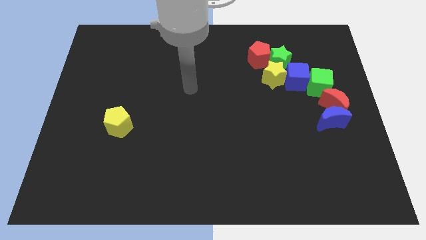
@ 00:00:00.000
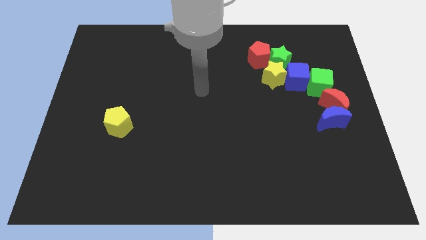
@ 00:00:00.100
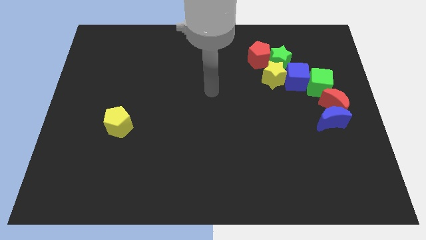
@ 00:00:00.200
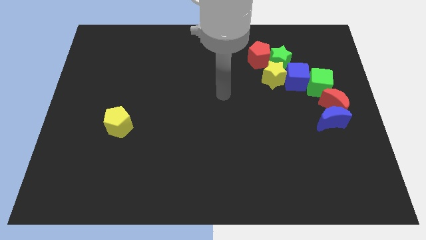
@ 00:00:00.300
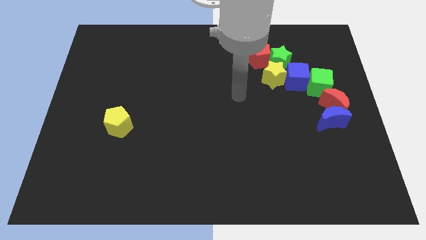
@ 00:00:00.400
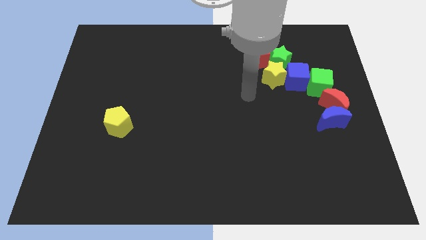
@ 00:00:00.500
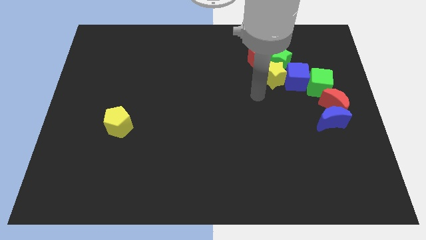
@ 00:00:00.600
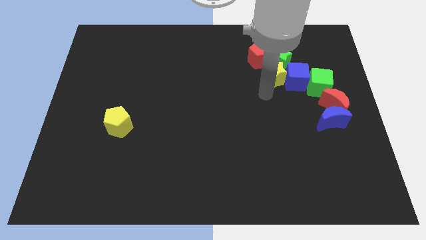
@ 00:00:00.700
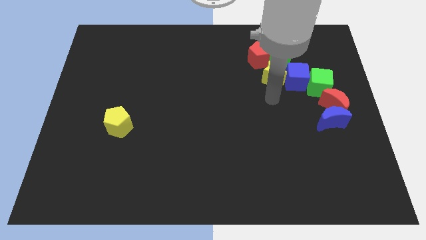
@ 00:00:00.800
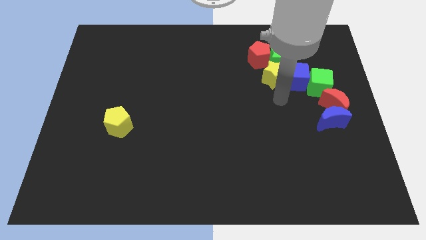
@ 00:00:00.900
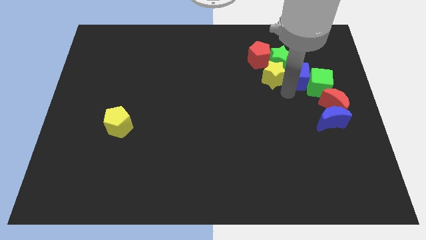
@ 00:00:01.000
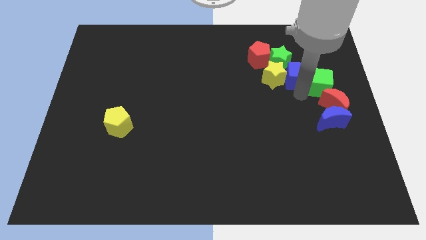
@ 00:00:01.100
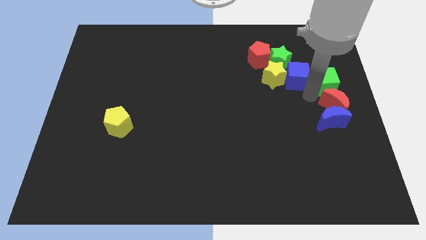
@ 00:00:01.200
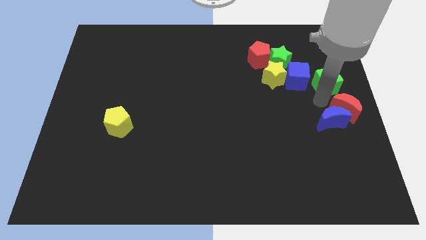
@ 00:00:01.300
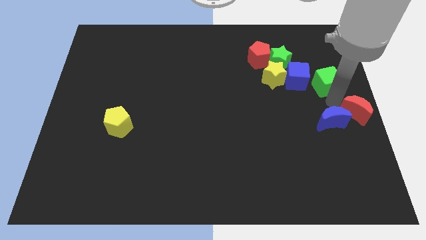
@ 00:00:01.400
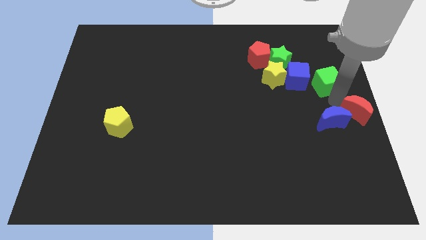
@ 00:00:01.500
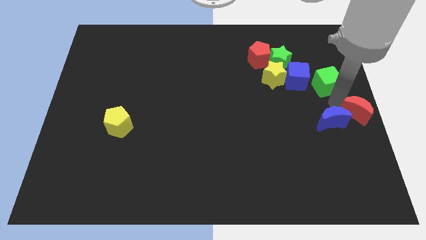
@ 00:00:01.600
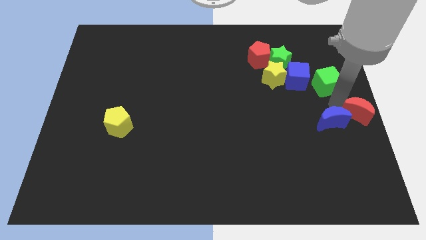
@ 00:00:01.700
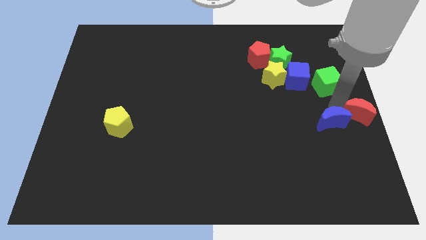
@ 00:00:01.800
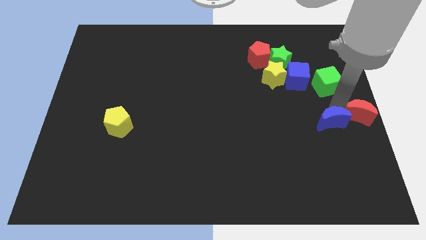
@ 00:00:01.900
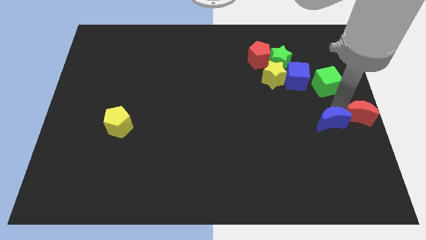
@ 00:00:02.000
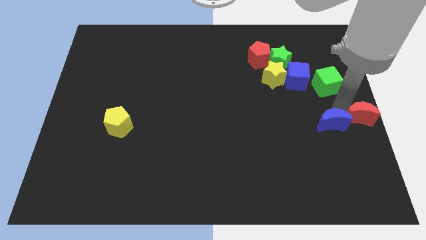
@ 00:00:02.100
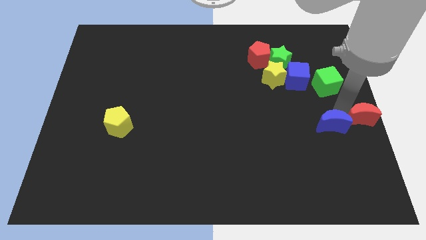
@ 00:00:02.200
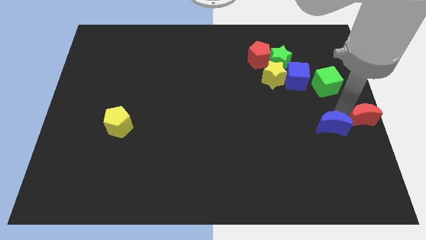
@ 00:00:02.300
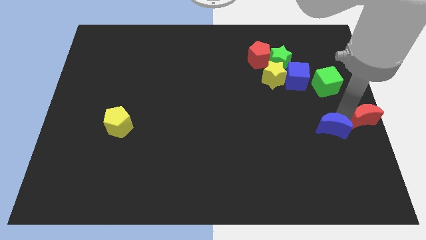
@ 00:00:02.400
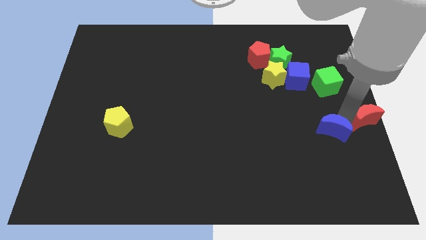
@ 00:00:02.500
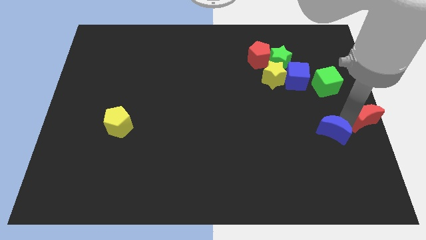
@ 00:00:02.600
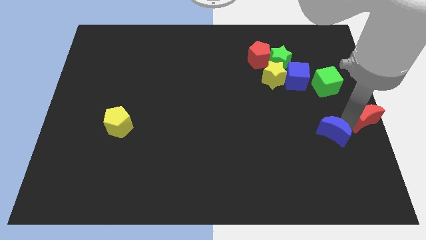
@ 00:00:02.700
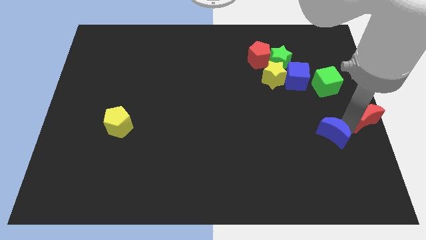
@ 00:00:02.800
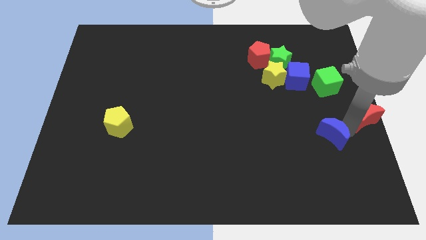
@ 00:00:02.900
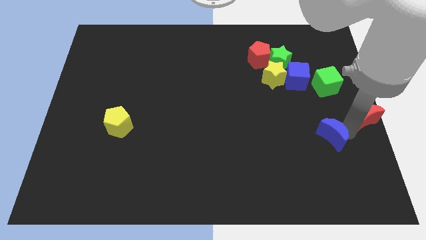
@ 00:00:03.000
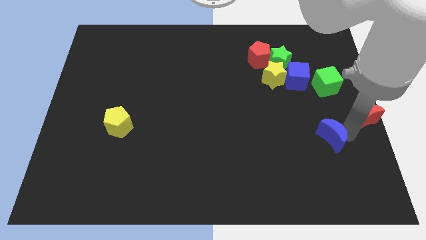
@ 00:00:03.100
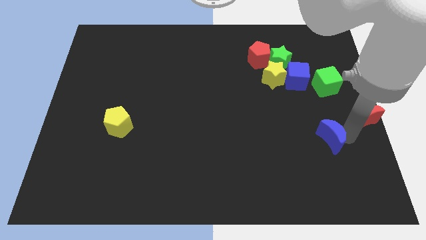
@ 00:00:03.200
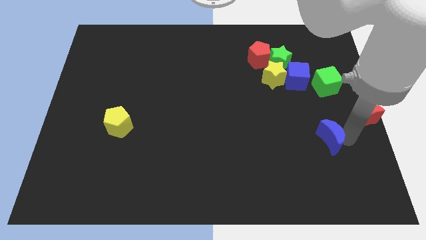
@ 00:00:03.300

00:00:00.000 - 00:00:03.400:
move the blue moon away from the red moon

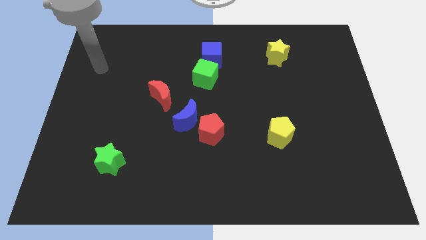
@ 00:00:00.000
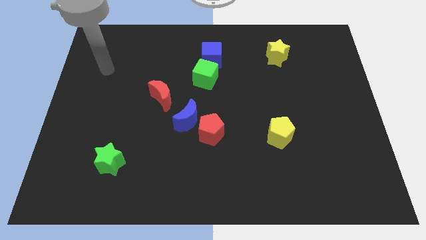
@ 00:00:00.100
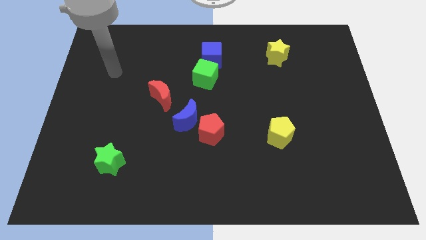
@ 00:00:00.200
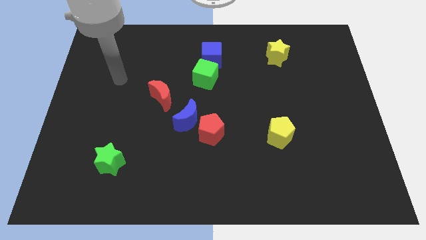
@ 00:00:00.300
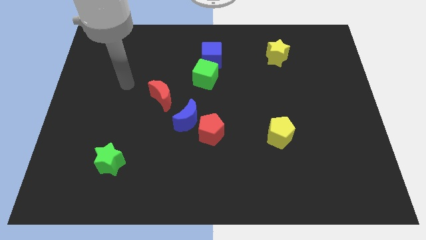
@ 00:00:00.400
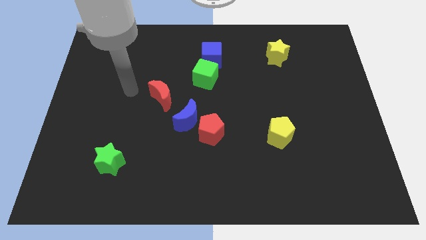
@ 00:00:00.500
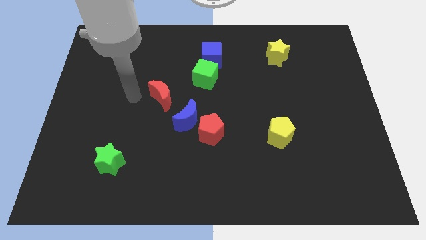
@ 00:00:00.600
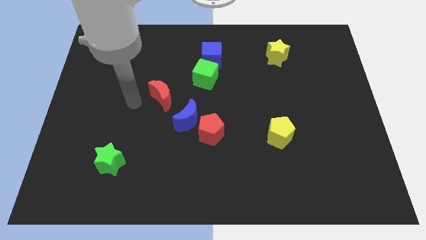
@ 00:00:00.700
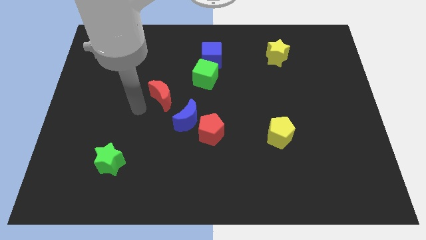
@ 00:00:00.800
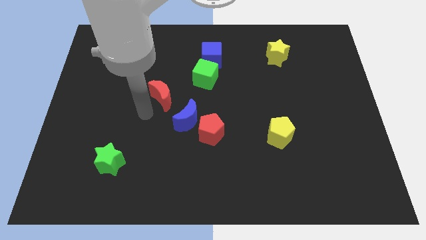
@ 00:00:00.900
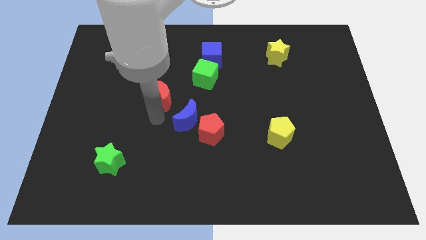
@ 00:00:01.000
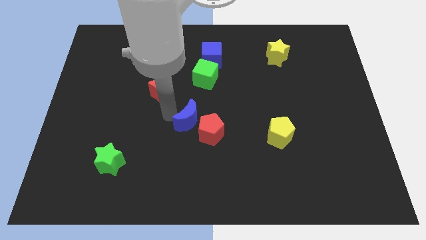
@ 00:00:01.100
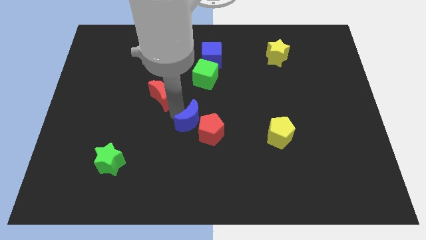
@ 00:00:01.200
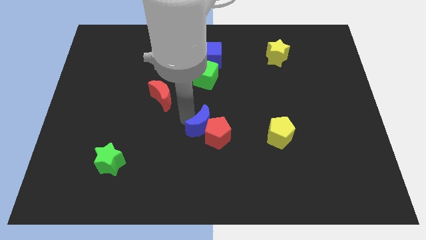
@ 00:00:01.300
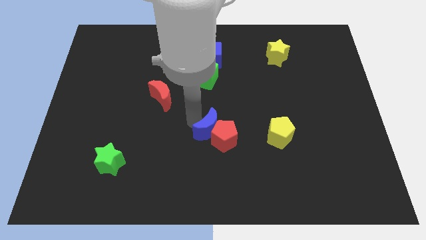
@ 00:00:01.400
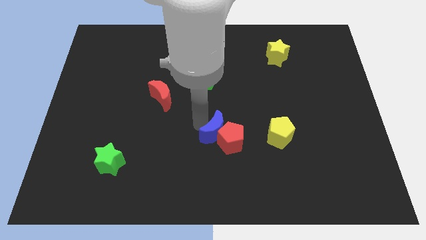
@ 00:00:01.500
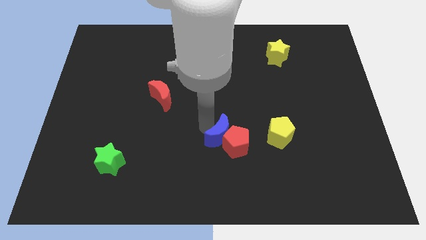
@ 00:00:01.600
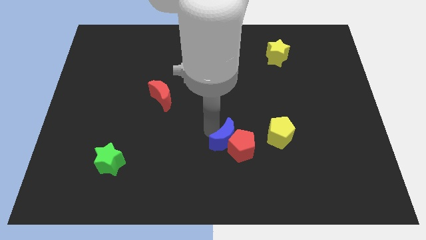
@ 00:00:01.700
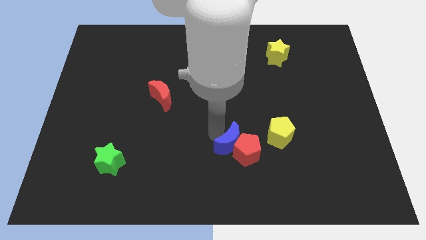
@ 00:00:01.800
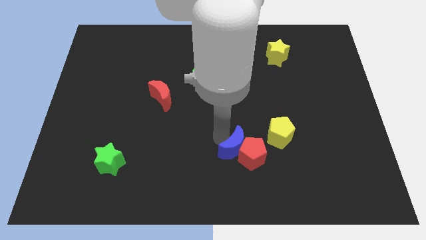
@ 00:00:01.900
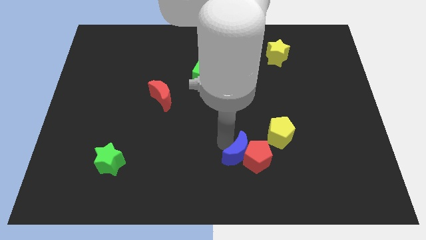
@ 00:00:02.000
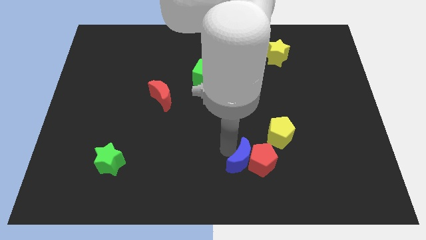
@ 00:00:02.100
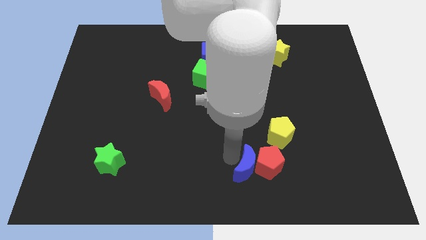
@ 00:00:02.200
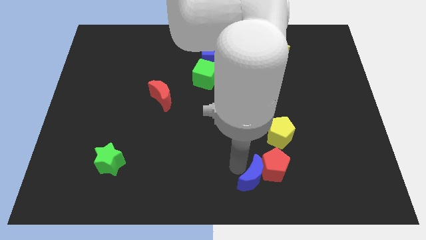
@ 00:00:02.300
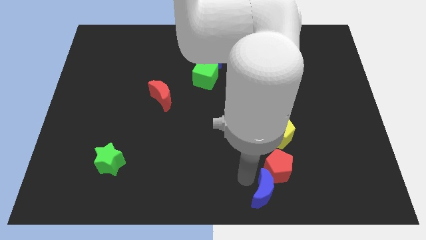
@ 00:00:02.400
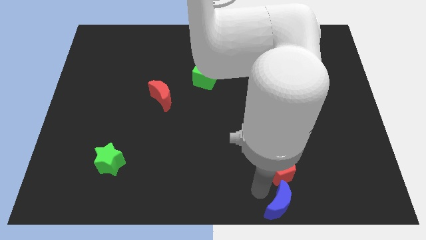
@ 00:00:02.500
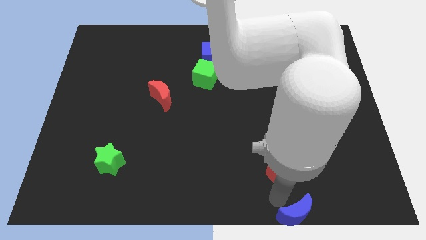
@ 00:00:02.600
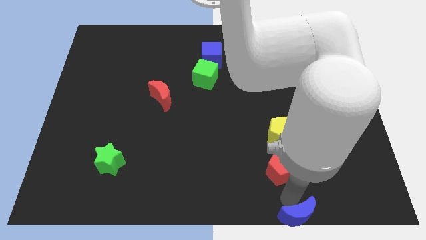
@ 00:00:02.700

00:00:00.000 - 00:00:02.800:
separate the red pentagon from the blue moon

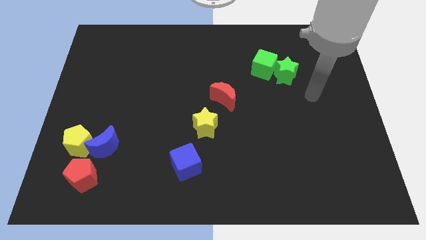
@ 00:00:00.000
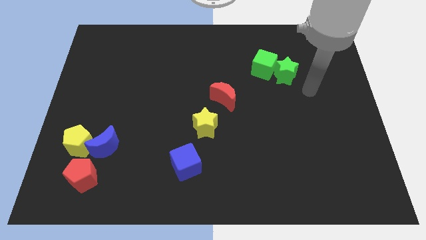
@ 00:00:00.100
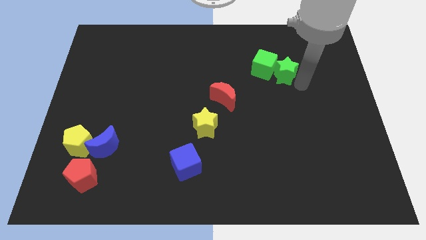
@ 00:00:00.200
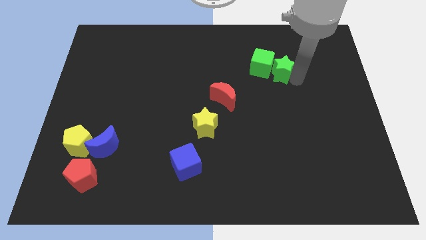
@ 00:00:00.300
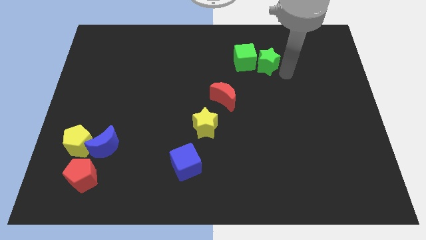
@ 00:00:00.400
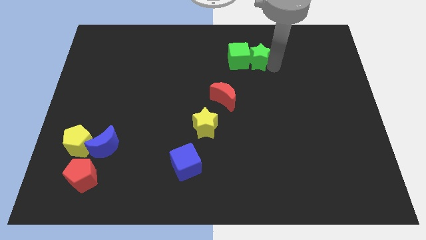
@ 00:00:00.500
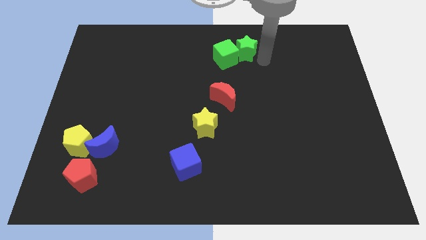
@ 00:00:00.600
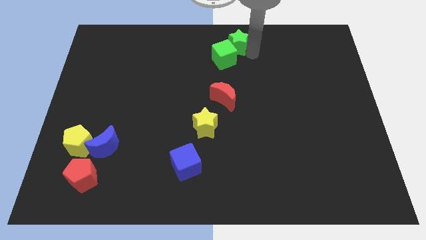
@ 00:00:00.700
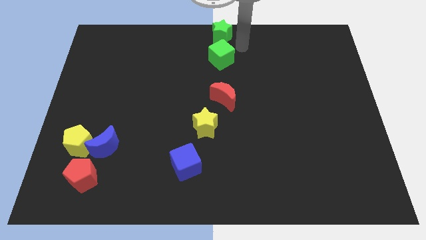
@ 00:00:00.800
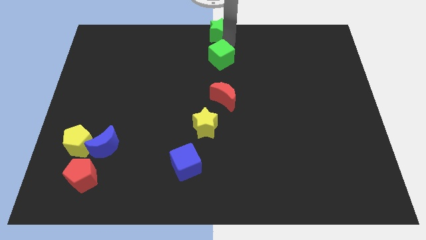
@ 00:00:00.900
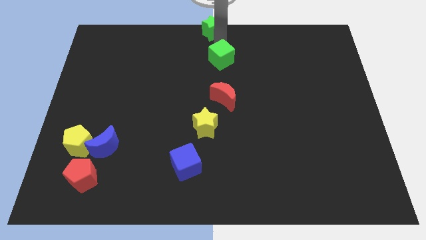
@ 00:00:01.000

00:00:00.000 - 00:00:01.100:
pull the green cube apart from the green star

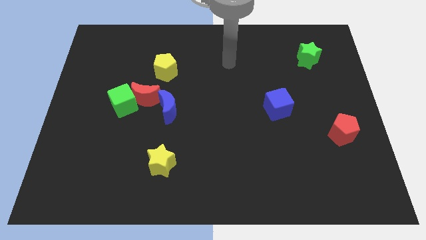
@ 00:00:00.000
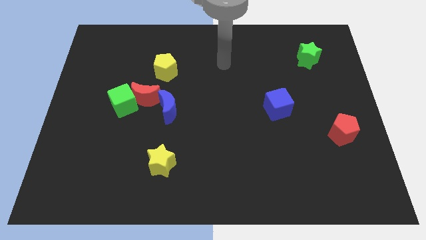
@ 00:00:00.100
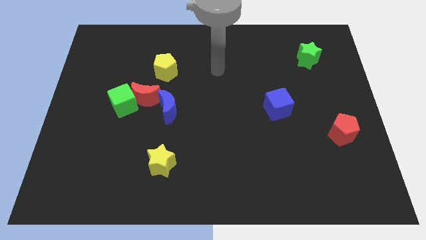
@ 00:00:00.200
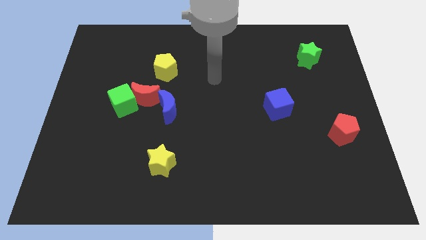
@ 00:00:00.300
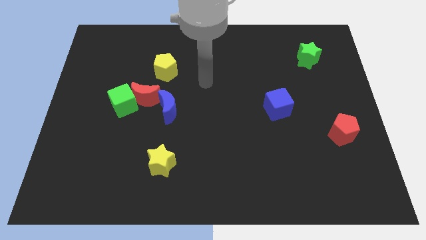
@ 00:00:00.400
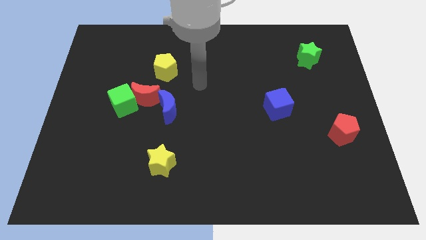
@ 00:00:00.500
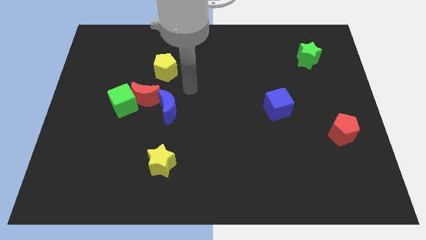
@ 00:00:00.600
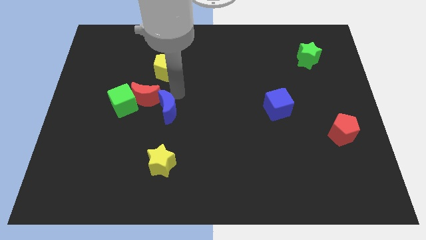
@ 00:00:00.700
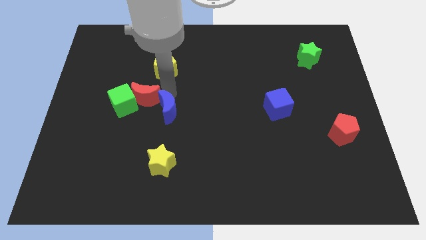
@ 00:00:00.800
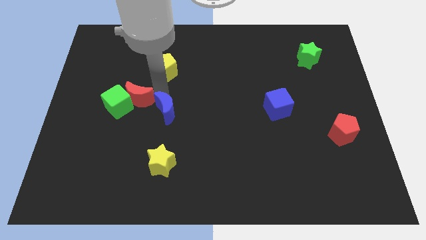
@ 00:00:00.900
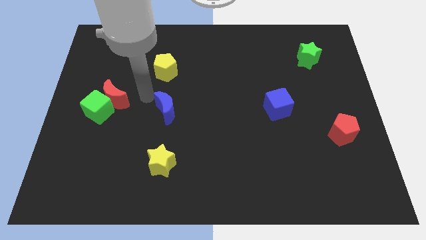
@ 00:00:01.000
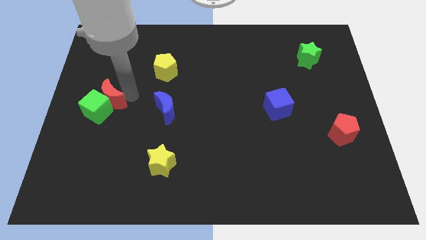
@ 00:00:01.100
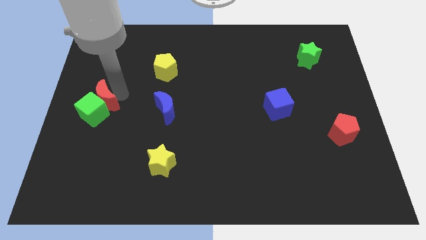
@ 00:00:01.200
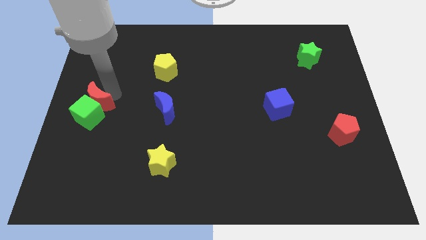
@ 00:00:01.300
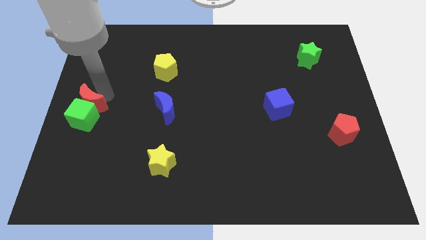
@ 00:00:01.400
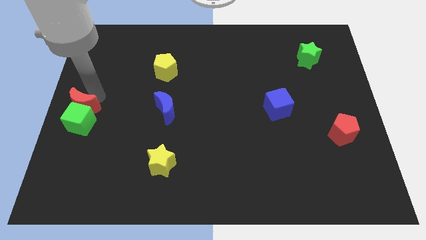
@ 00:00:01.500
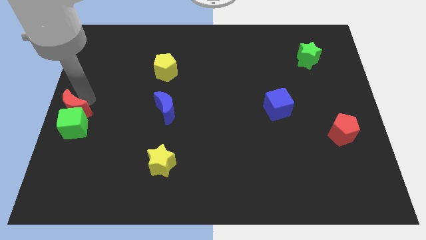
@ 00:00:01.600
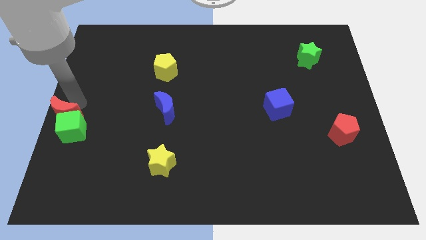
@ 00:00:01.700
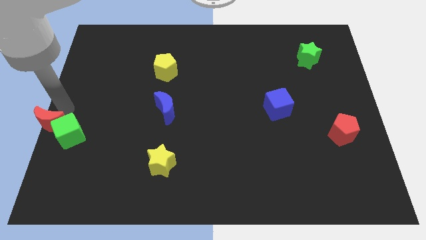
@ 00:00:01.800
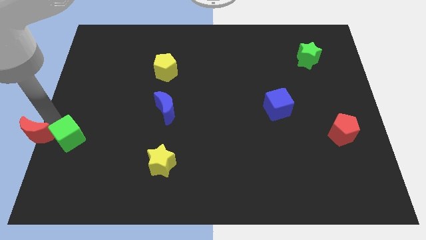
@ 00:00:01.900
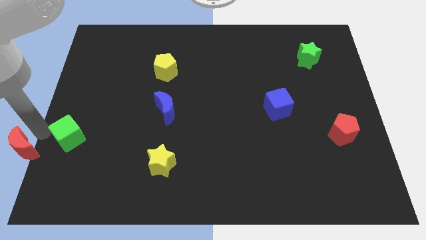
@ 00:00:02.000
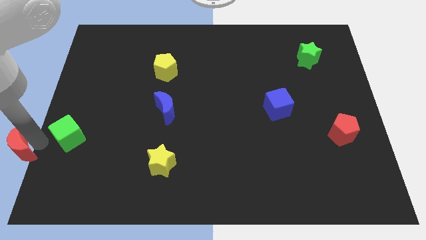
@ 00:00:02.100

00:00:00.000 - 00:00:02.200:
pull the green cube apart from the red moon
